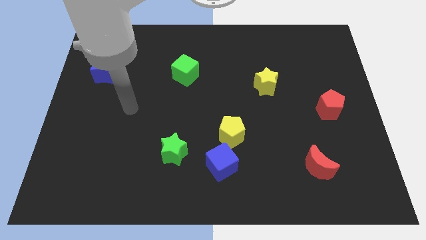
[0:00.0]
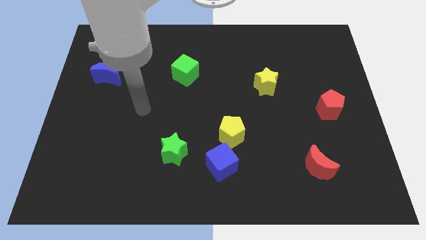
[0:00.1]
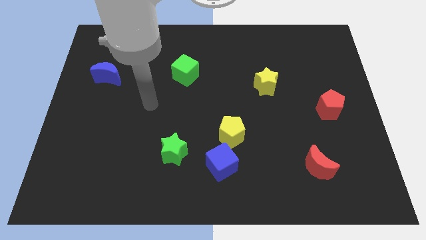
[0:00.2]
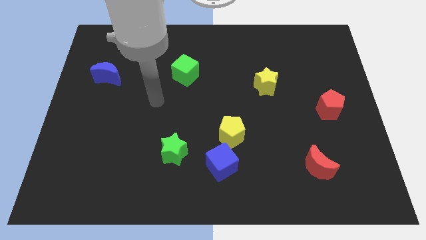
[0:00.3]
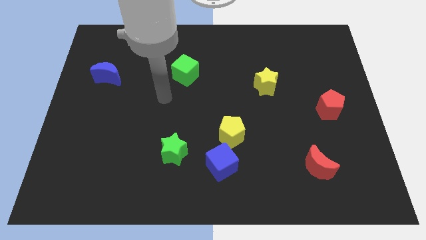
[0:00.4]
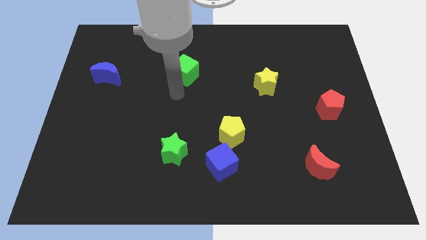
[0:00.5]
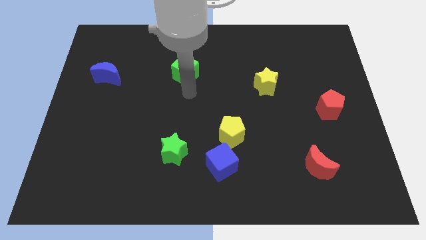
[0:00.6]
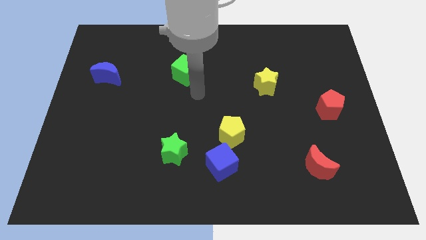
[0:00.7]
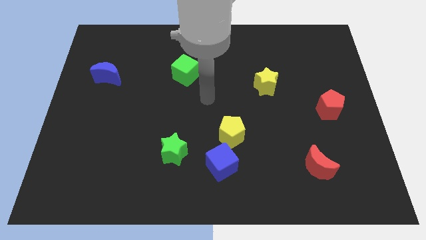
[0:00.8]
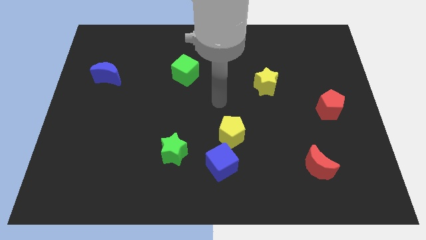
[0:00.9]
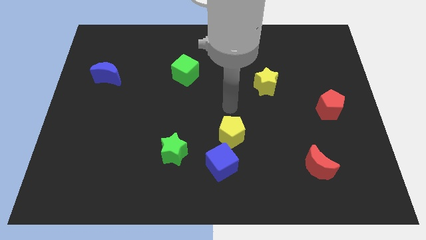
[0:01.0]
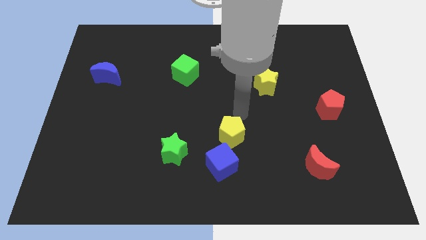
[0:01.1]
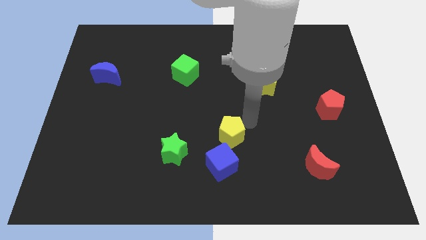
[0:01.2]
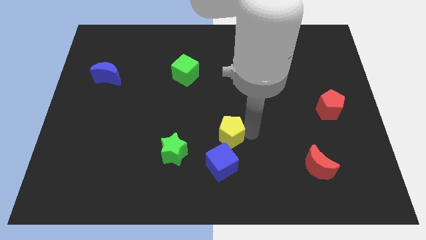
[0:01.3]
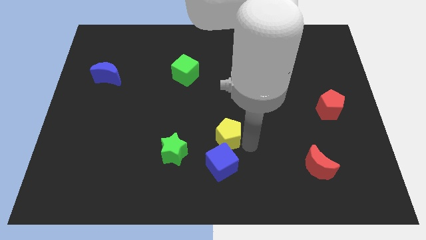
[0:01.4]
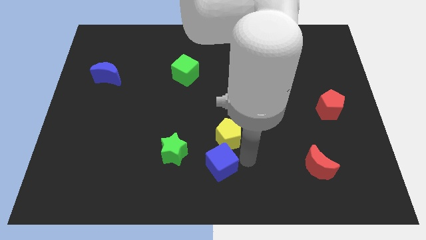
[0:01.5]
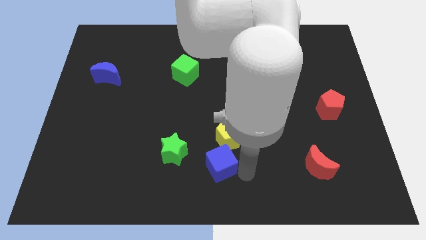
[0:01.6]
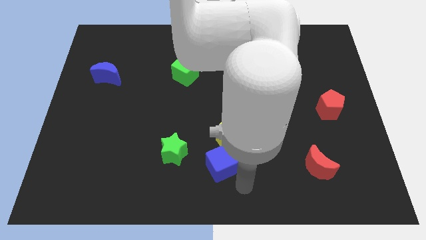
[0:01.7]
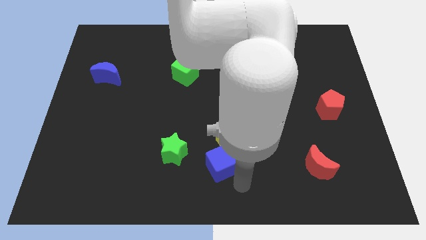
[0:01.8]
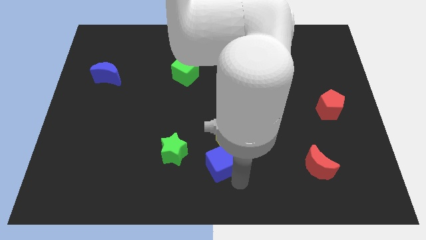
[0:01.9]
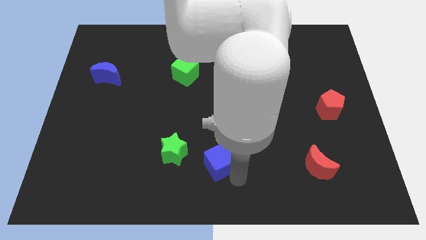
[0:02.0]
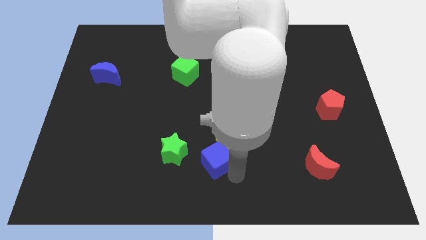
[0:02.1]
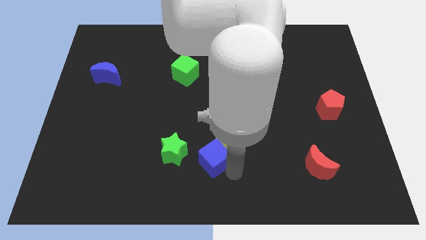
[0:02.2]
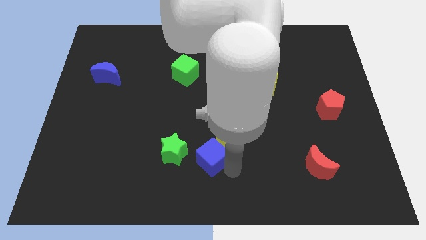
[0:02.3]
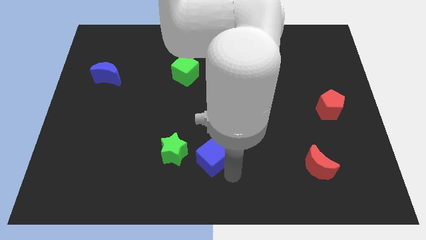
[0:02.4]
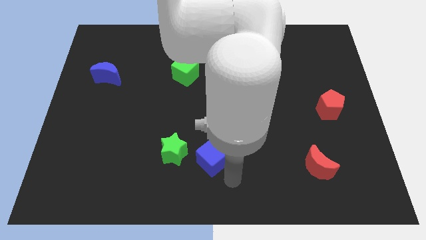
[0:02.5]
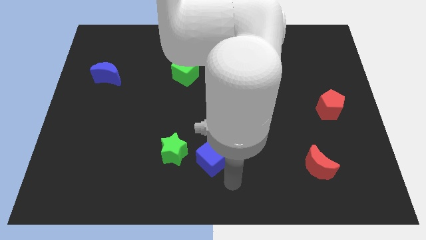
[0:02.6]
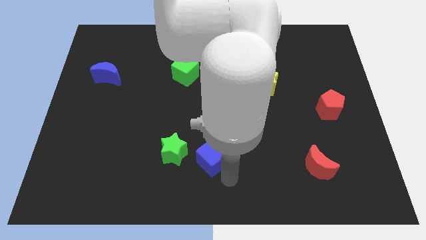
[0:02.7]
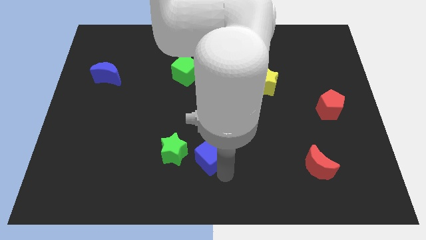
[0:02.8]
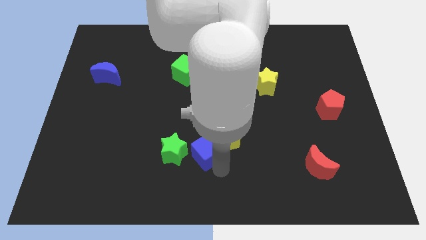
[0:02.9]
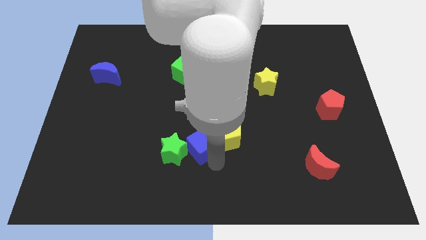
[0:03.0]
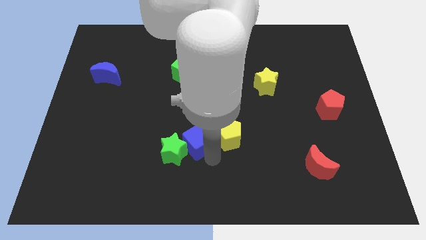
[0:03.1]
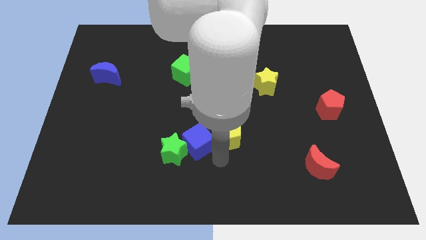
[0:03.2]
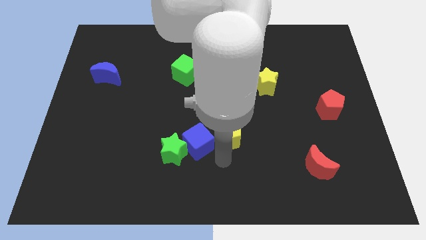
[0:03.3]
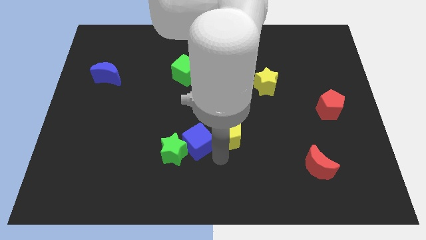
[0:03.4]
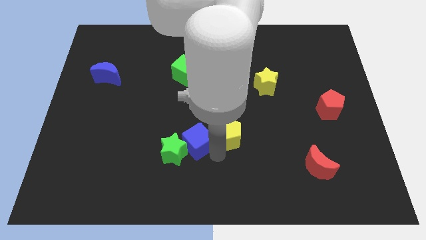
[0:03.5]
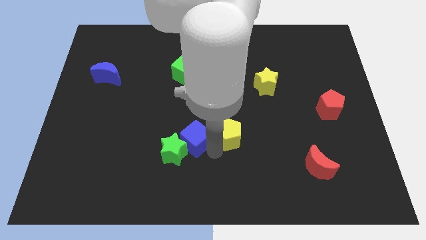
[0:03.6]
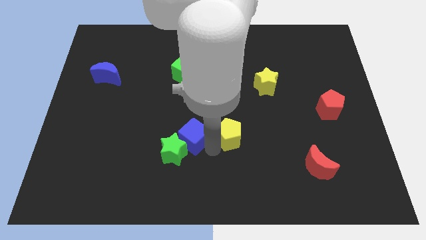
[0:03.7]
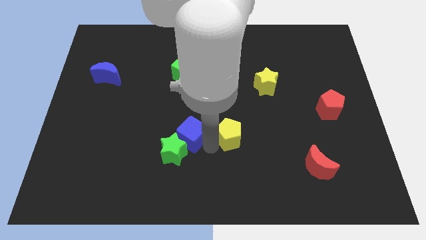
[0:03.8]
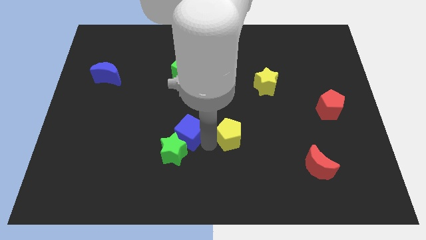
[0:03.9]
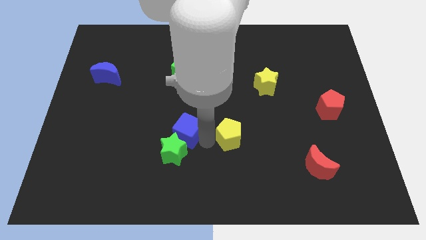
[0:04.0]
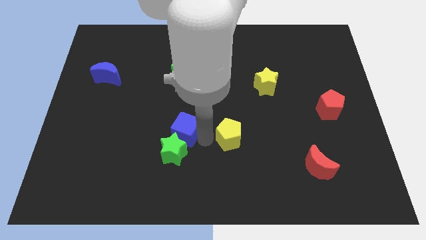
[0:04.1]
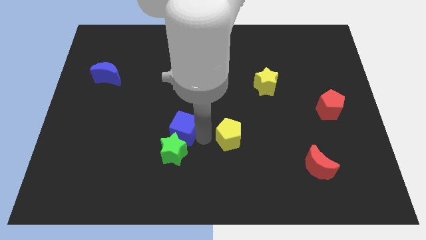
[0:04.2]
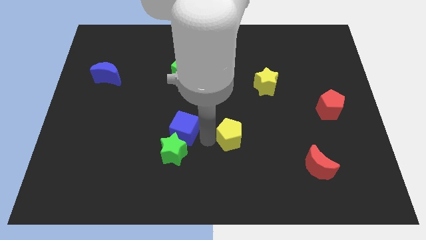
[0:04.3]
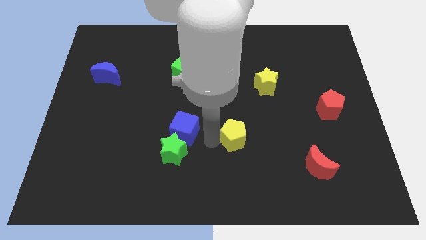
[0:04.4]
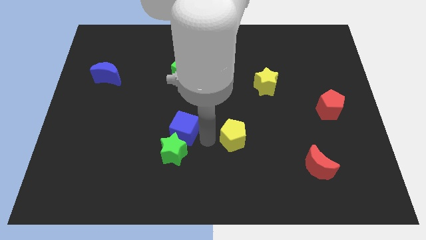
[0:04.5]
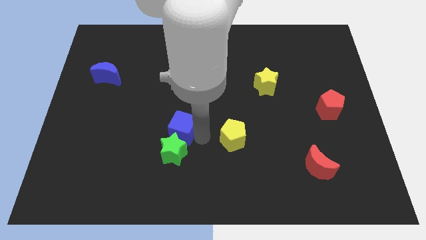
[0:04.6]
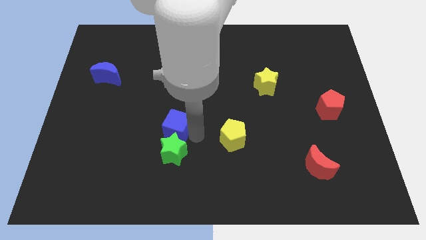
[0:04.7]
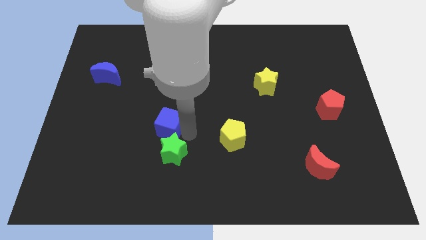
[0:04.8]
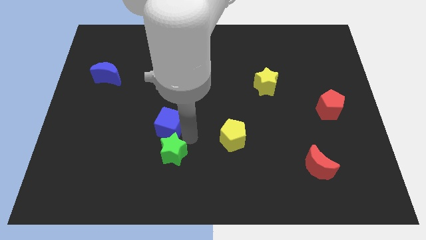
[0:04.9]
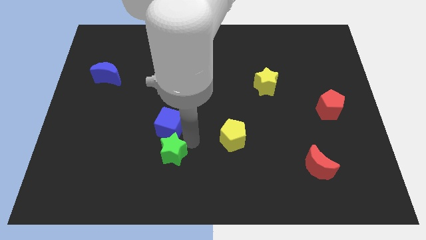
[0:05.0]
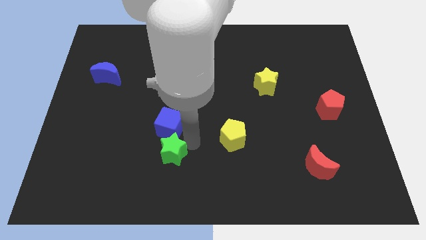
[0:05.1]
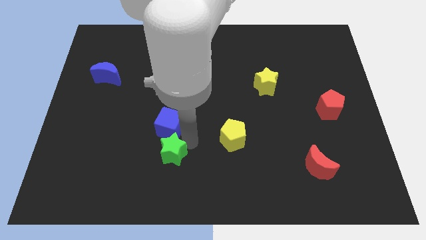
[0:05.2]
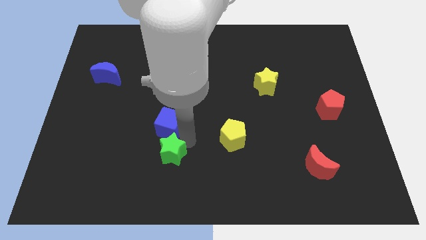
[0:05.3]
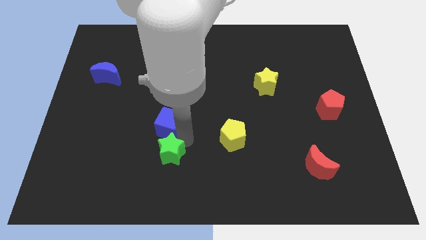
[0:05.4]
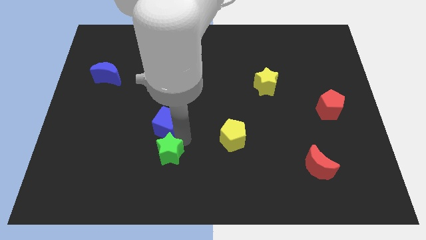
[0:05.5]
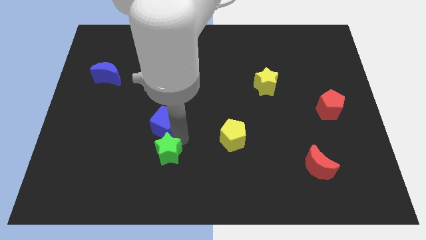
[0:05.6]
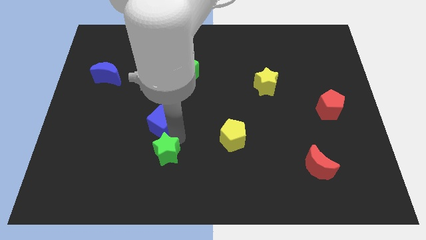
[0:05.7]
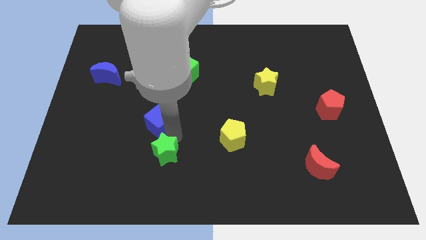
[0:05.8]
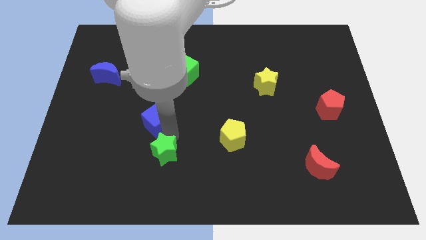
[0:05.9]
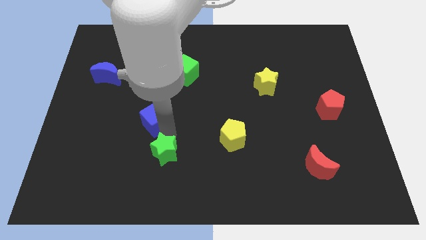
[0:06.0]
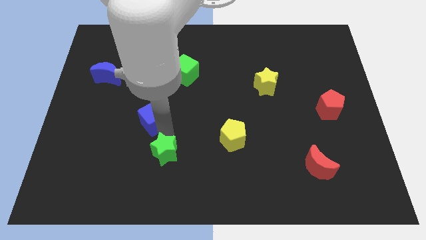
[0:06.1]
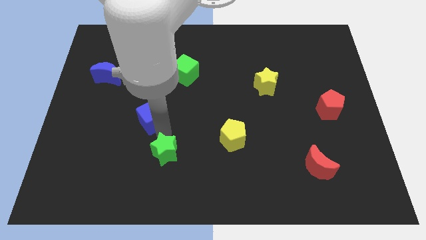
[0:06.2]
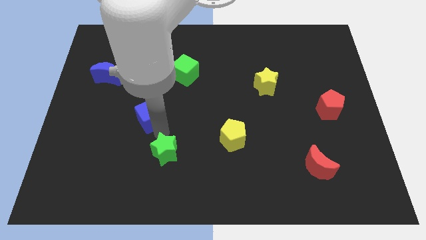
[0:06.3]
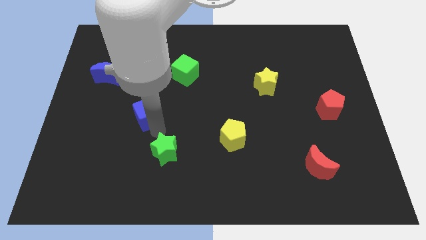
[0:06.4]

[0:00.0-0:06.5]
move the blue cube up and to the left diagonally

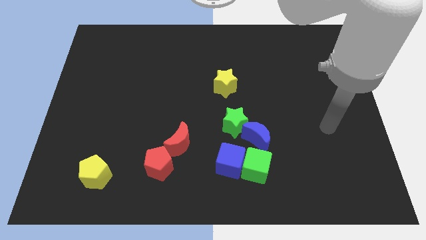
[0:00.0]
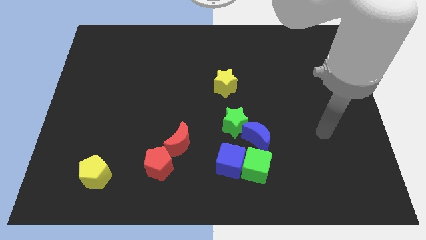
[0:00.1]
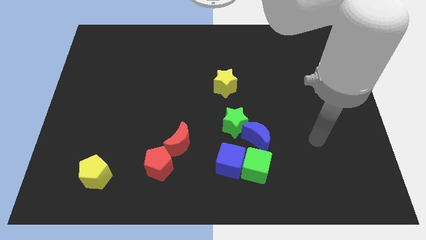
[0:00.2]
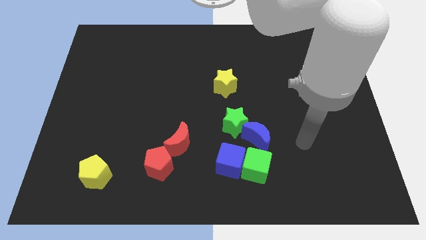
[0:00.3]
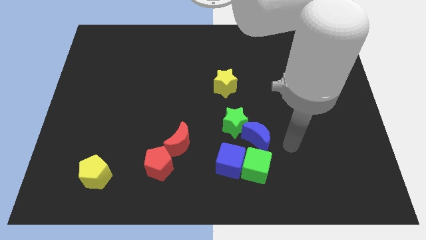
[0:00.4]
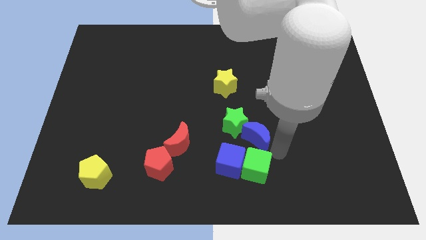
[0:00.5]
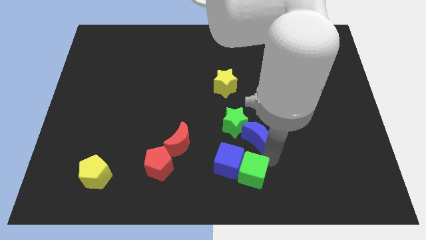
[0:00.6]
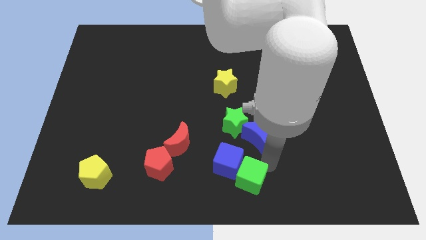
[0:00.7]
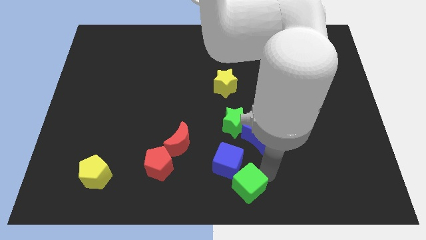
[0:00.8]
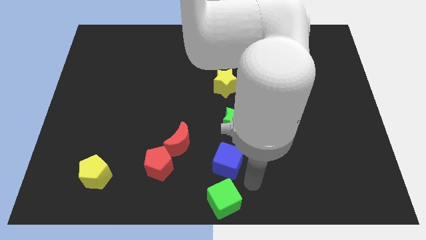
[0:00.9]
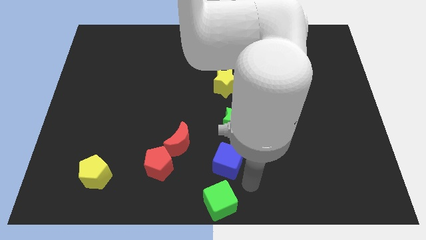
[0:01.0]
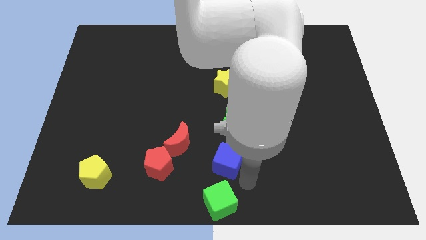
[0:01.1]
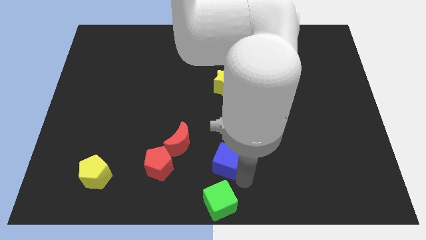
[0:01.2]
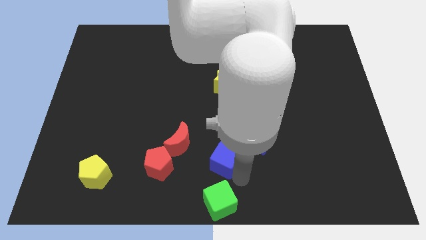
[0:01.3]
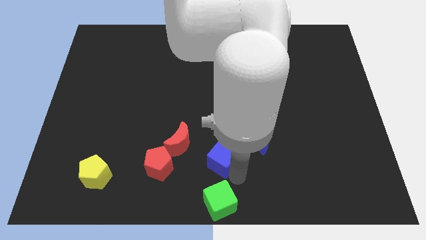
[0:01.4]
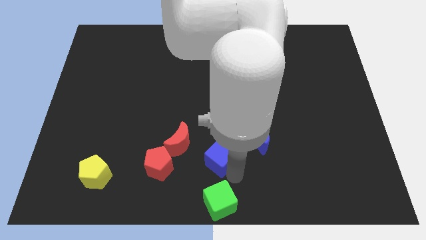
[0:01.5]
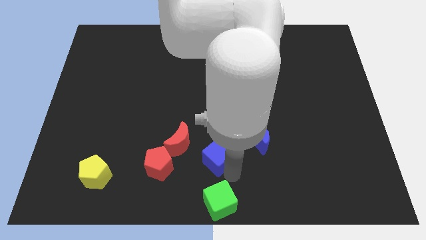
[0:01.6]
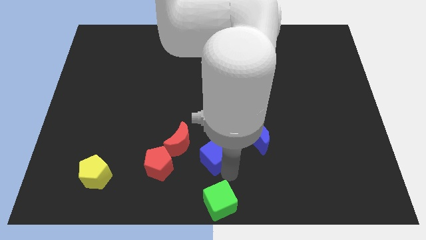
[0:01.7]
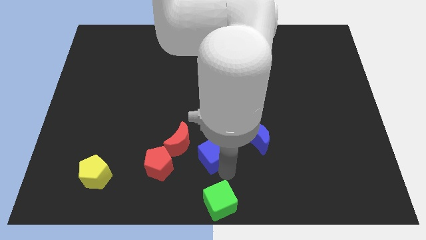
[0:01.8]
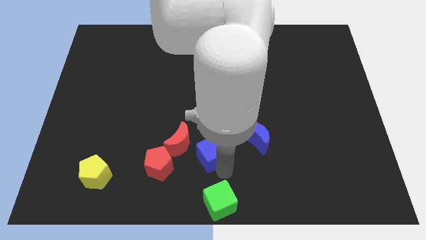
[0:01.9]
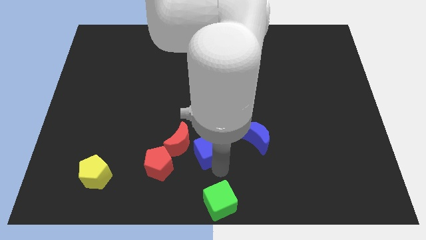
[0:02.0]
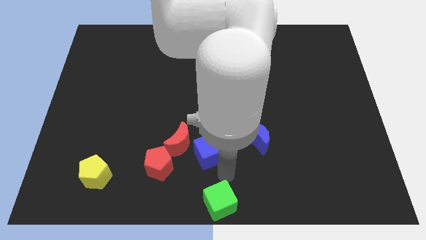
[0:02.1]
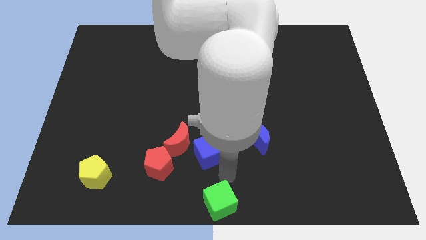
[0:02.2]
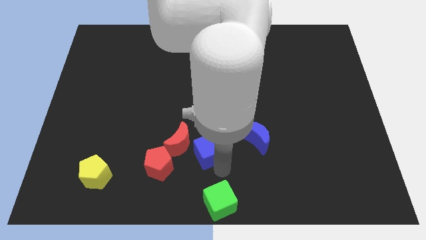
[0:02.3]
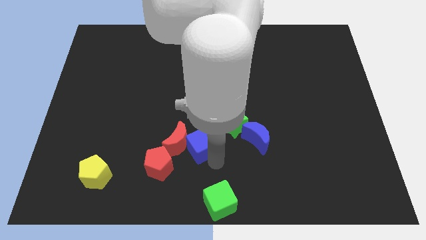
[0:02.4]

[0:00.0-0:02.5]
slightly slide the blue cube diagonally up and to the left
